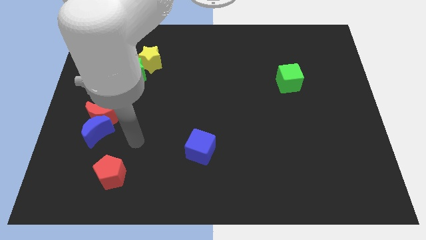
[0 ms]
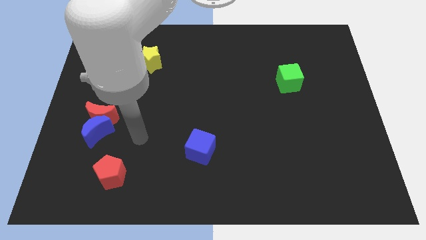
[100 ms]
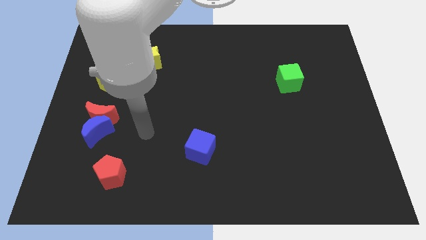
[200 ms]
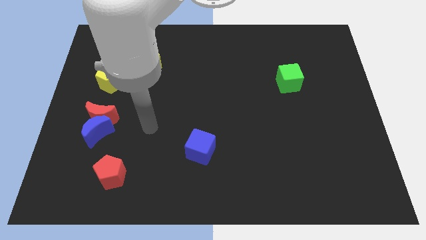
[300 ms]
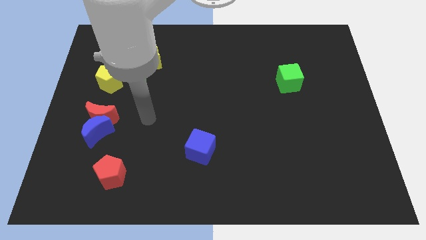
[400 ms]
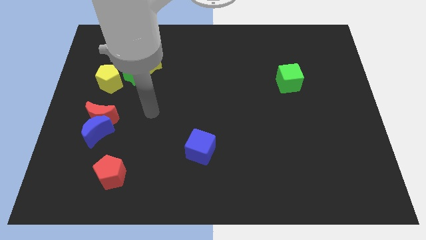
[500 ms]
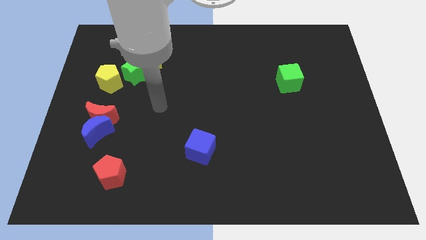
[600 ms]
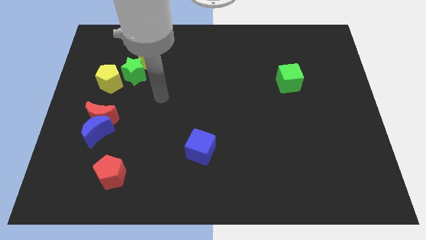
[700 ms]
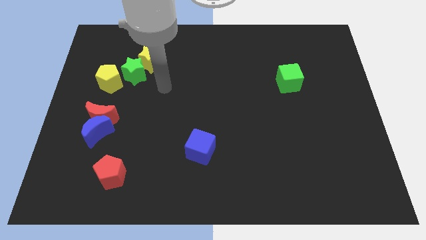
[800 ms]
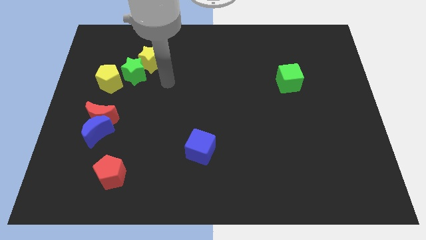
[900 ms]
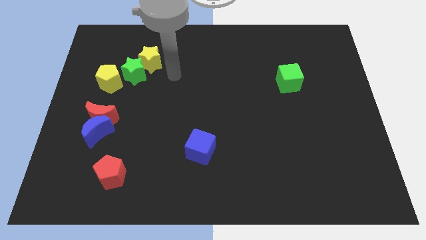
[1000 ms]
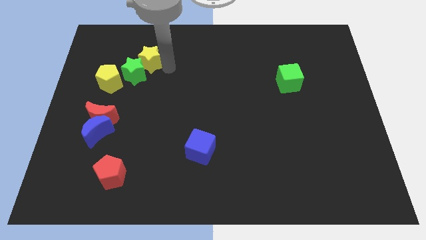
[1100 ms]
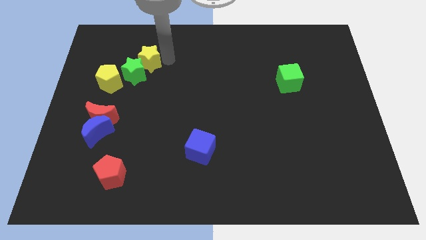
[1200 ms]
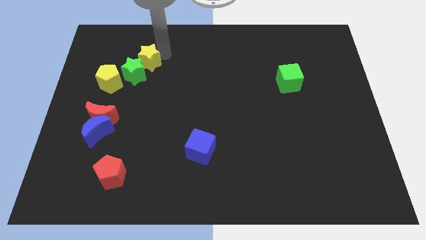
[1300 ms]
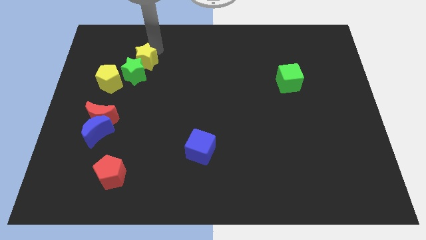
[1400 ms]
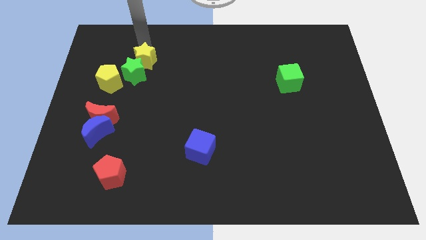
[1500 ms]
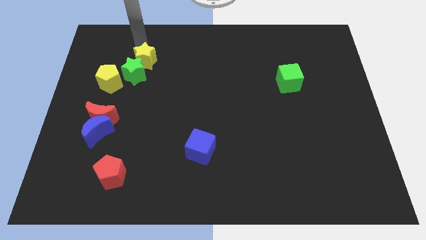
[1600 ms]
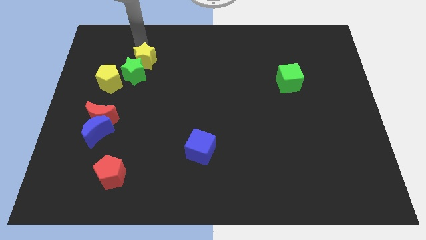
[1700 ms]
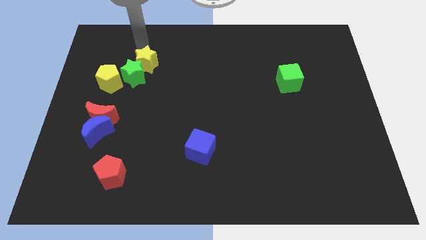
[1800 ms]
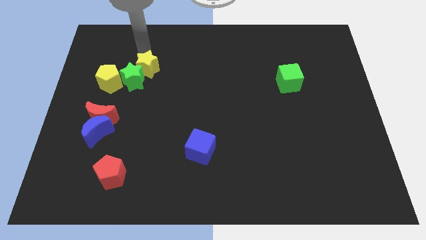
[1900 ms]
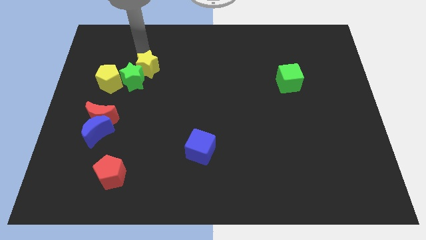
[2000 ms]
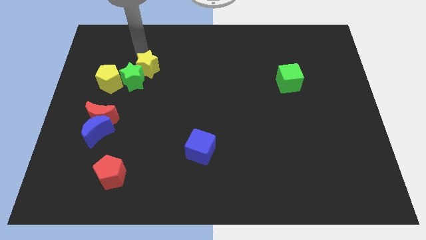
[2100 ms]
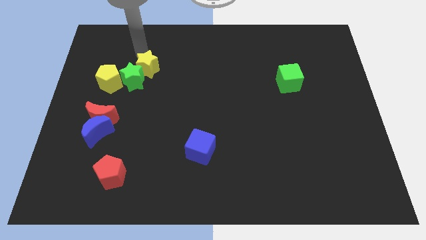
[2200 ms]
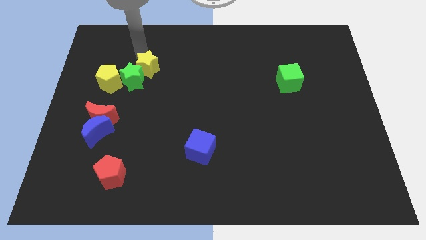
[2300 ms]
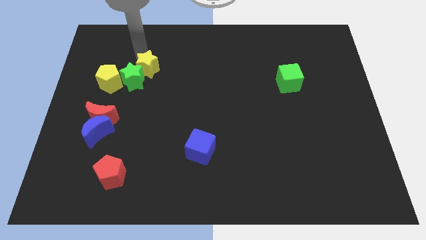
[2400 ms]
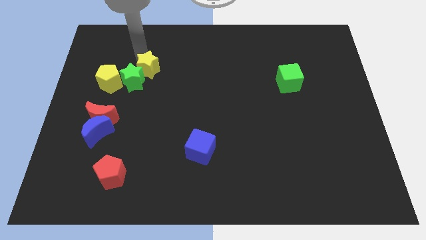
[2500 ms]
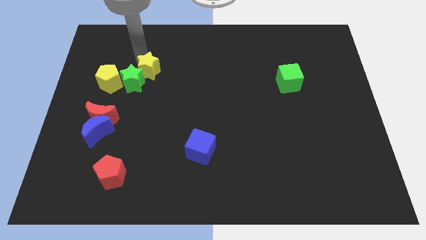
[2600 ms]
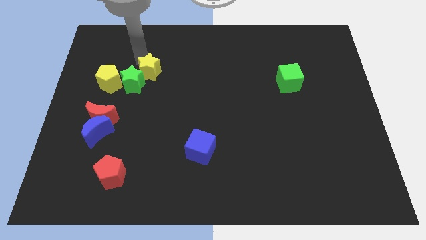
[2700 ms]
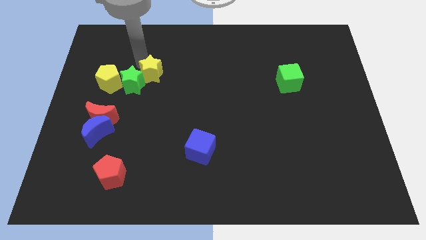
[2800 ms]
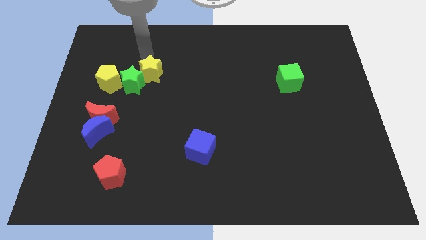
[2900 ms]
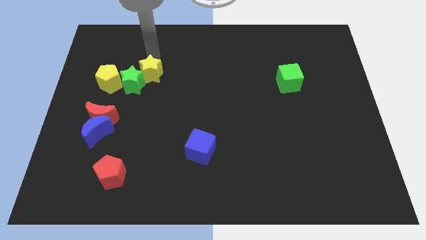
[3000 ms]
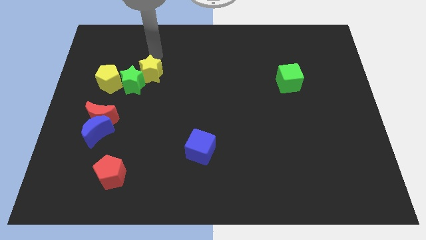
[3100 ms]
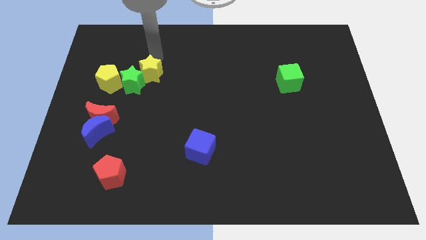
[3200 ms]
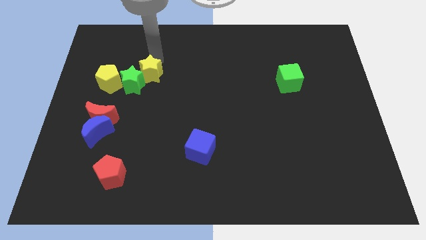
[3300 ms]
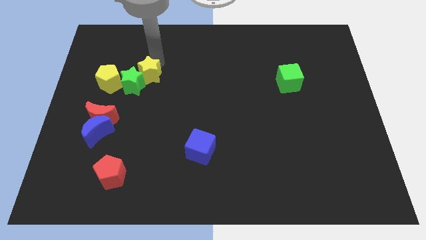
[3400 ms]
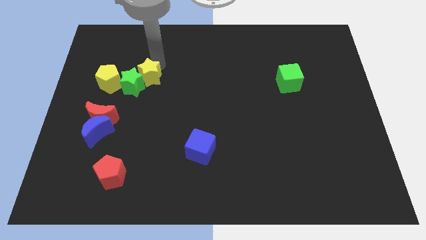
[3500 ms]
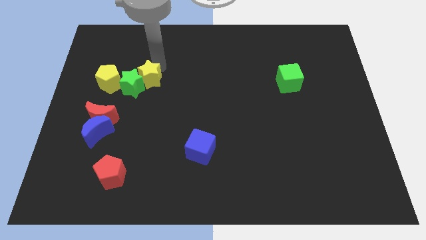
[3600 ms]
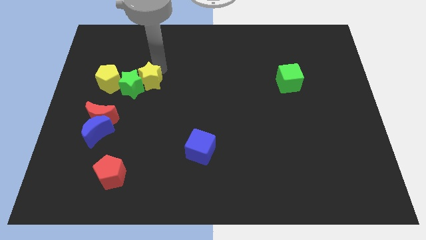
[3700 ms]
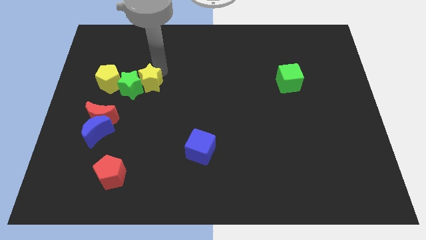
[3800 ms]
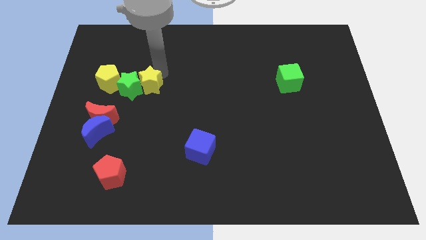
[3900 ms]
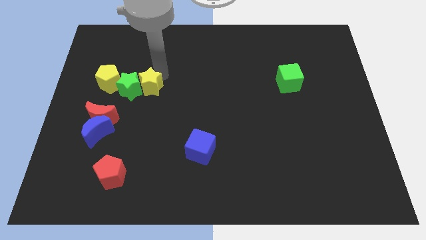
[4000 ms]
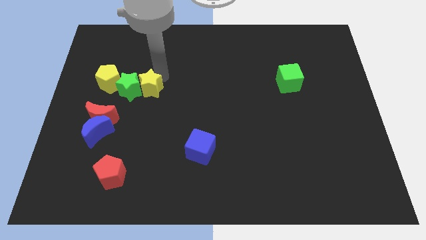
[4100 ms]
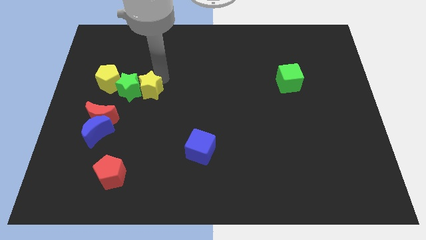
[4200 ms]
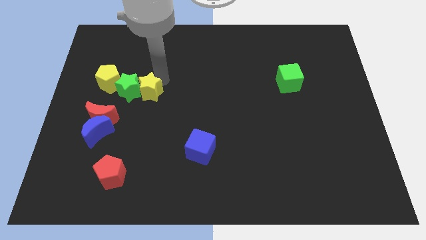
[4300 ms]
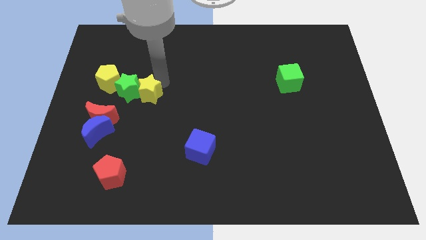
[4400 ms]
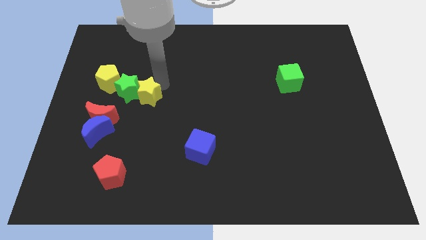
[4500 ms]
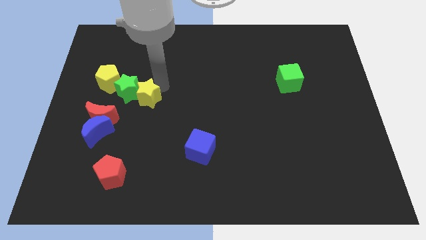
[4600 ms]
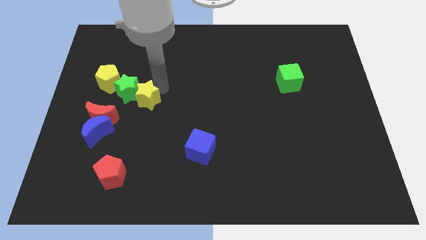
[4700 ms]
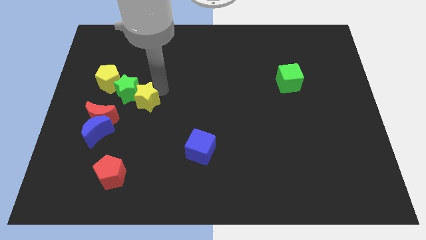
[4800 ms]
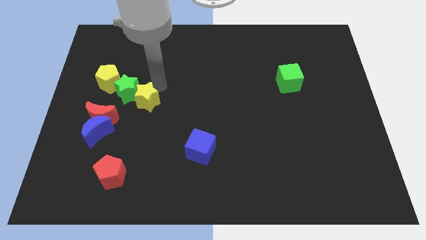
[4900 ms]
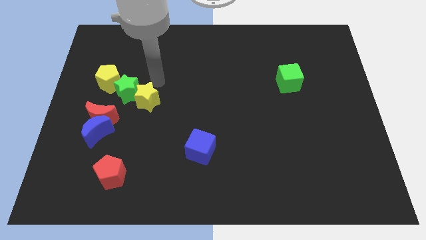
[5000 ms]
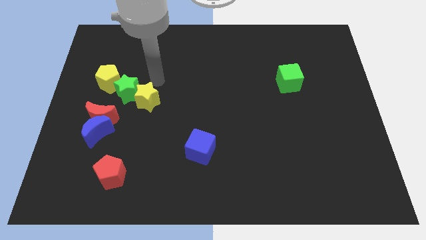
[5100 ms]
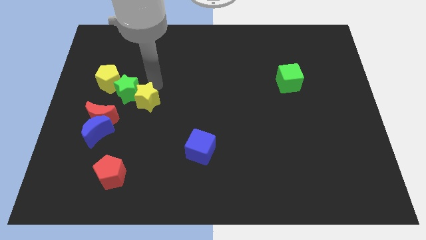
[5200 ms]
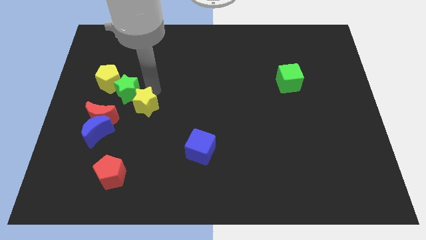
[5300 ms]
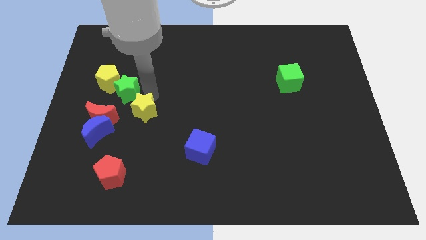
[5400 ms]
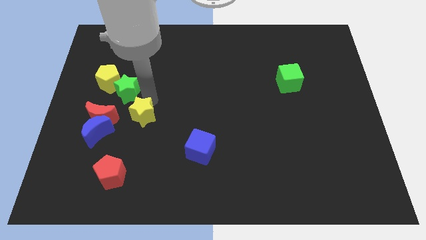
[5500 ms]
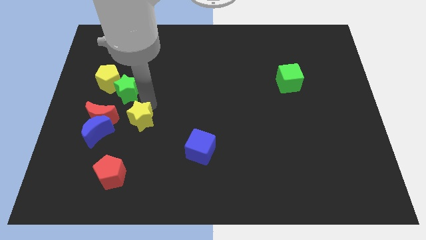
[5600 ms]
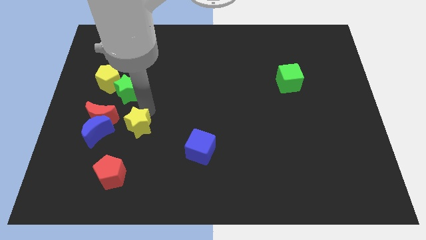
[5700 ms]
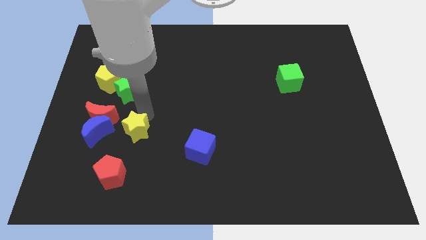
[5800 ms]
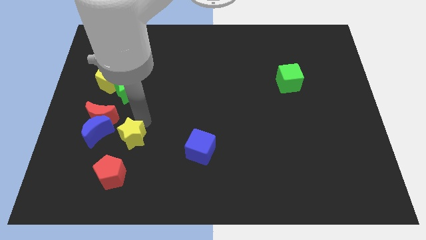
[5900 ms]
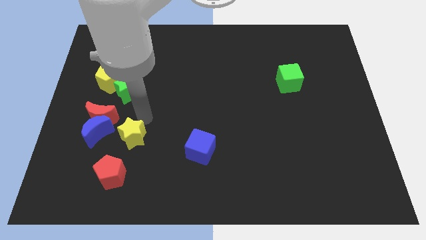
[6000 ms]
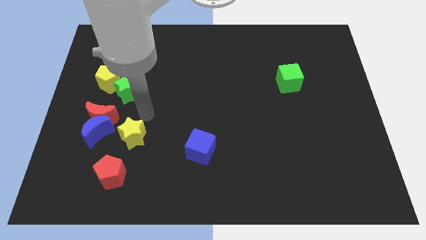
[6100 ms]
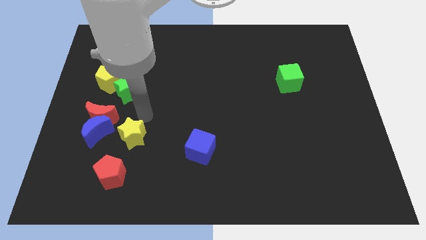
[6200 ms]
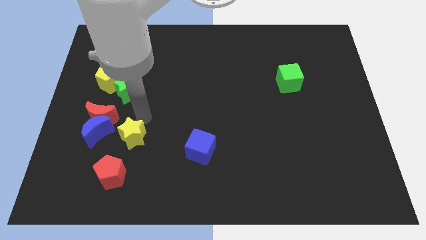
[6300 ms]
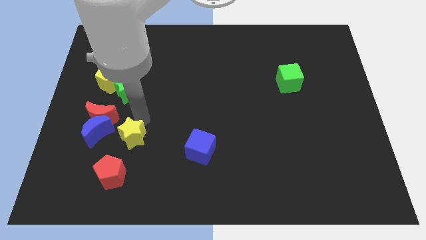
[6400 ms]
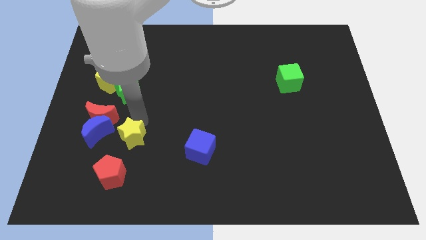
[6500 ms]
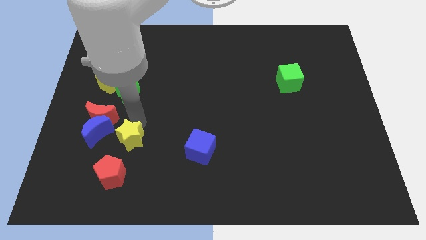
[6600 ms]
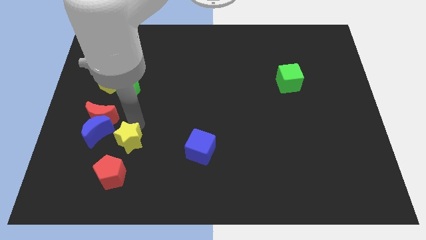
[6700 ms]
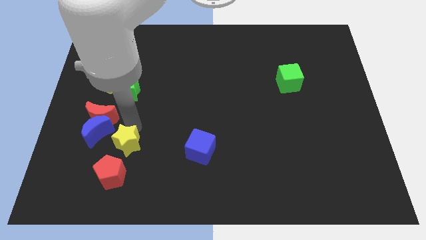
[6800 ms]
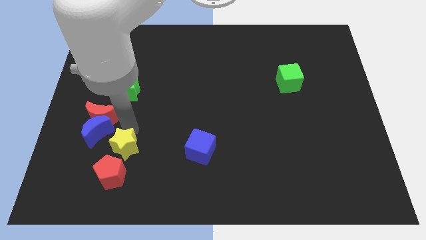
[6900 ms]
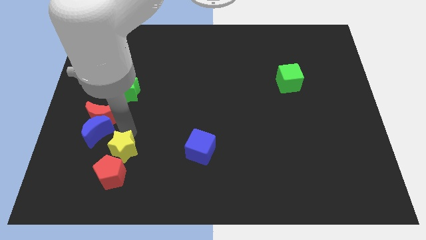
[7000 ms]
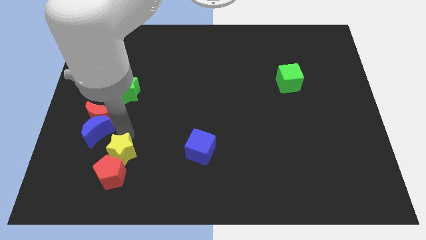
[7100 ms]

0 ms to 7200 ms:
put the yellow star towards the red pentagon
